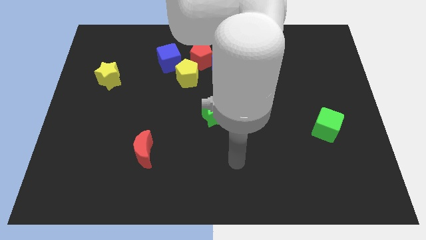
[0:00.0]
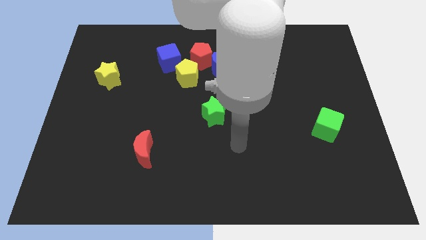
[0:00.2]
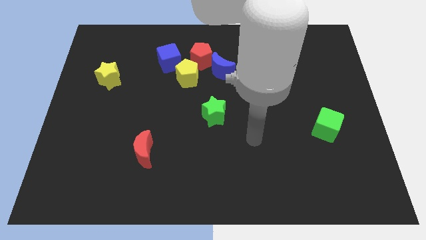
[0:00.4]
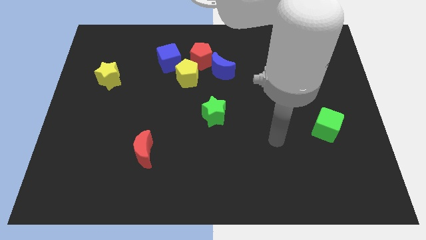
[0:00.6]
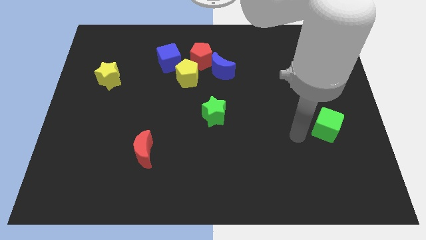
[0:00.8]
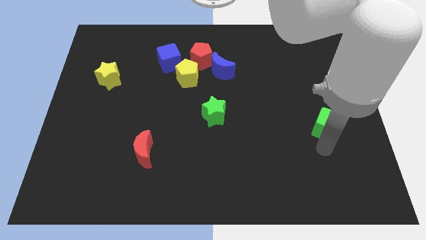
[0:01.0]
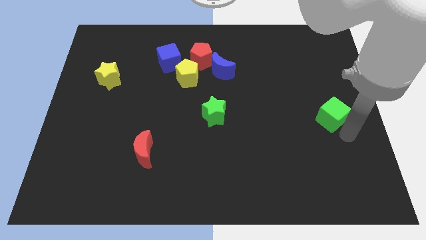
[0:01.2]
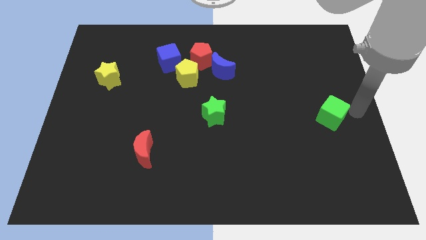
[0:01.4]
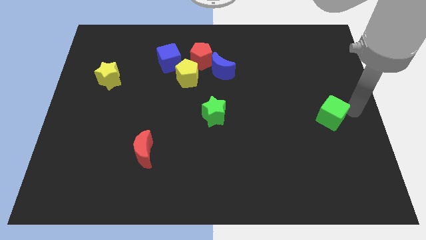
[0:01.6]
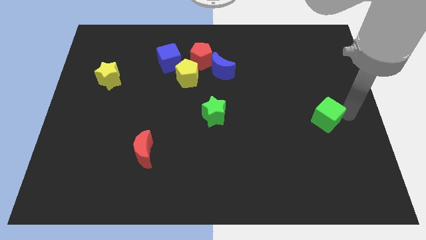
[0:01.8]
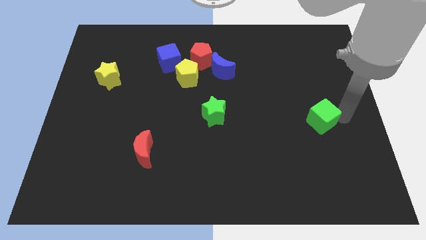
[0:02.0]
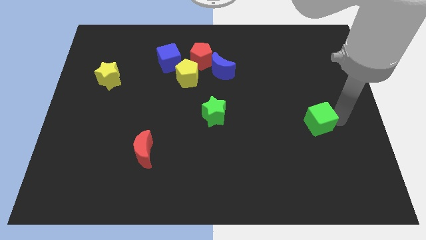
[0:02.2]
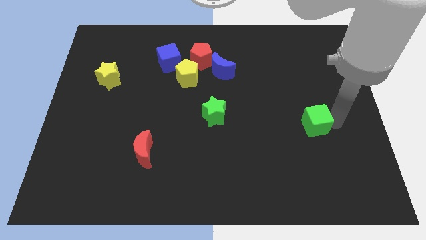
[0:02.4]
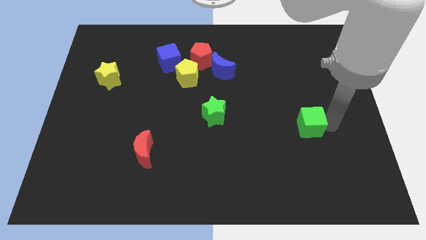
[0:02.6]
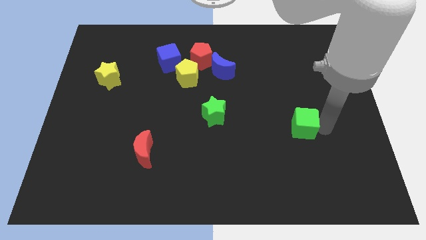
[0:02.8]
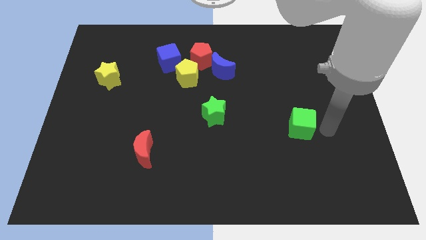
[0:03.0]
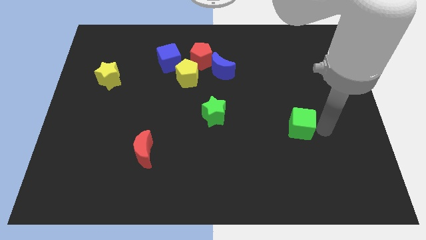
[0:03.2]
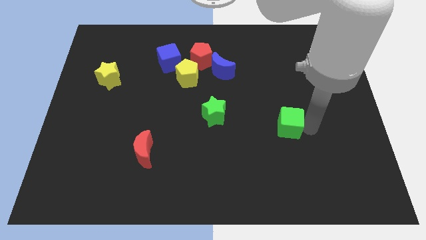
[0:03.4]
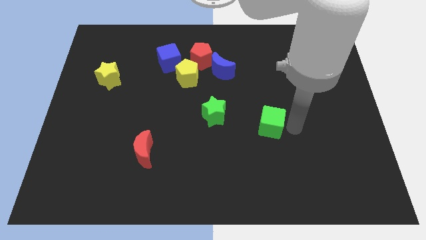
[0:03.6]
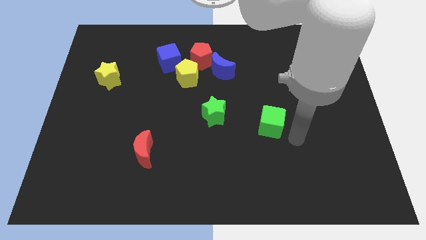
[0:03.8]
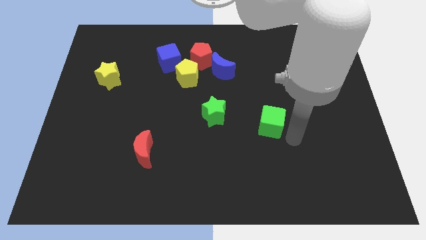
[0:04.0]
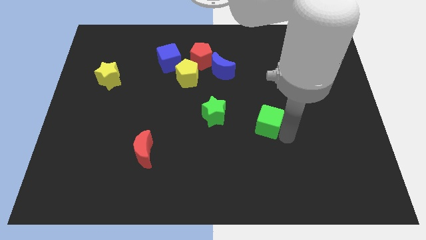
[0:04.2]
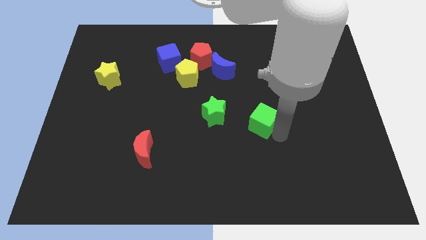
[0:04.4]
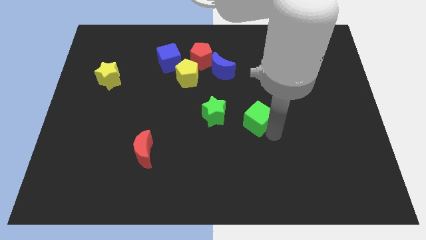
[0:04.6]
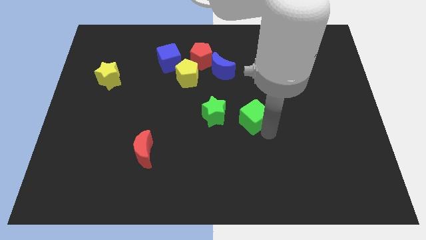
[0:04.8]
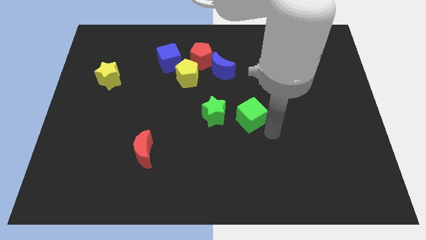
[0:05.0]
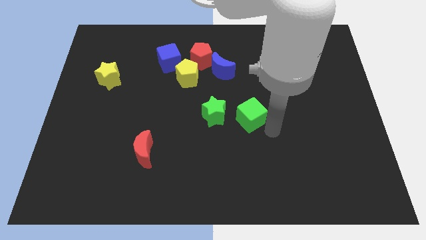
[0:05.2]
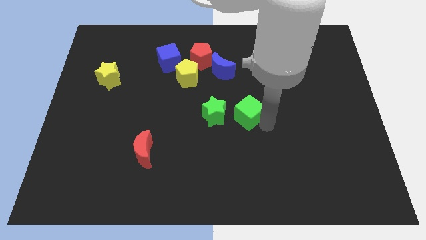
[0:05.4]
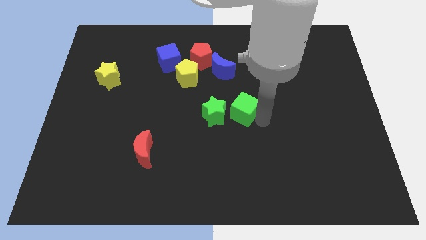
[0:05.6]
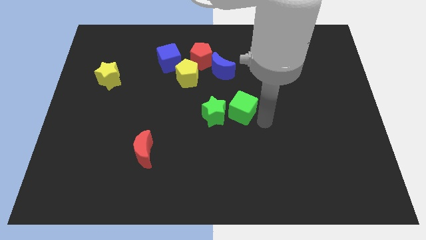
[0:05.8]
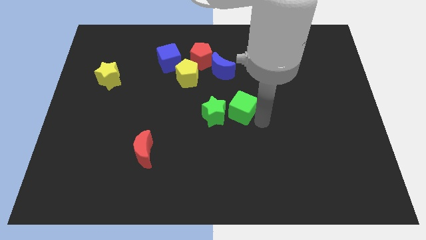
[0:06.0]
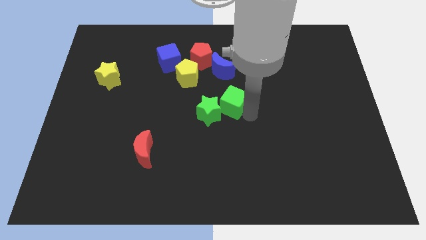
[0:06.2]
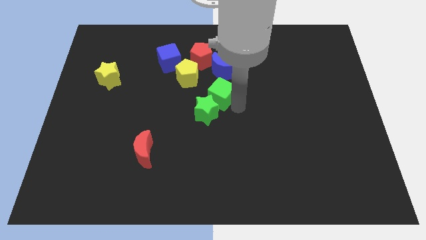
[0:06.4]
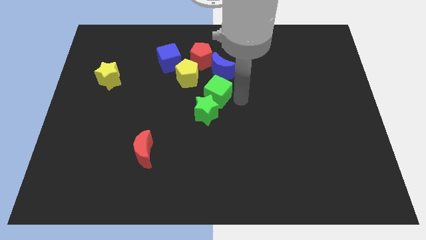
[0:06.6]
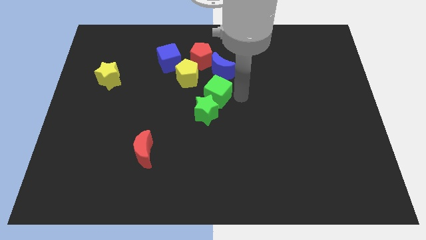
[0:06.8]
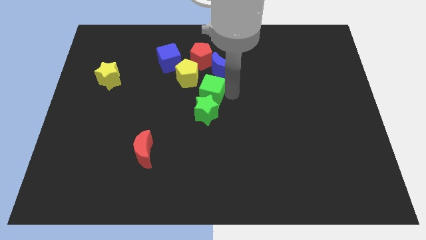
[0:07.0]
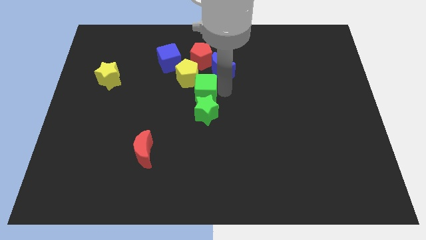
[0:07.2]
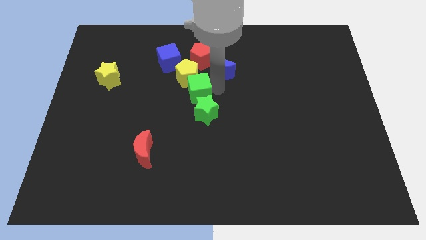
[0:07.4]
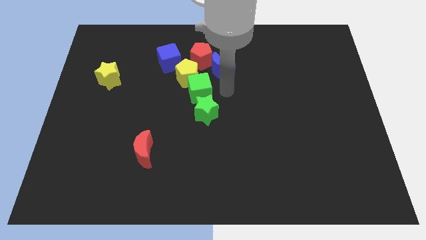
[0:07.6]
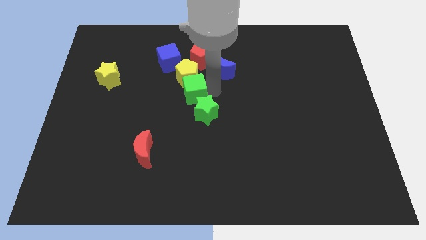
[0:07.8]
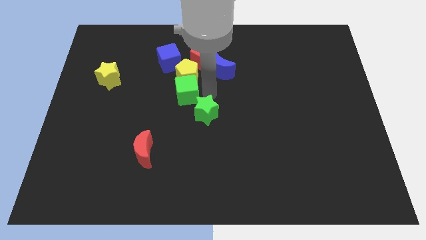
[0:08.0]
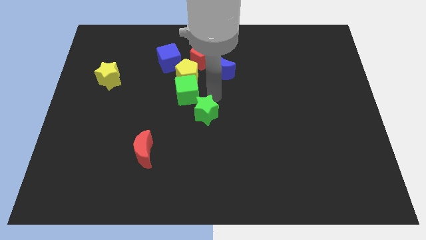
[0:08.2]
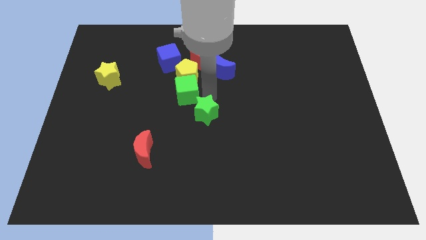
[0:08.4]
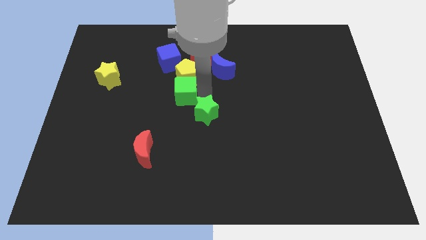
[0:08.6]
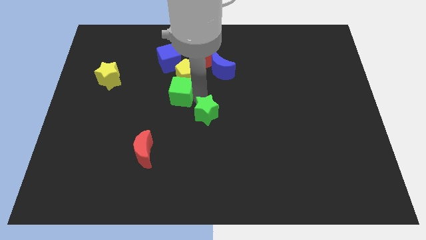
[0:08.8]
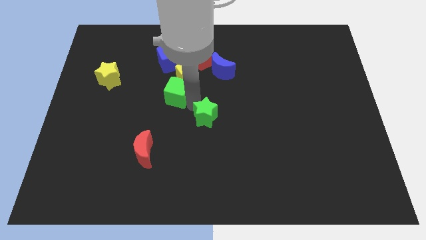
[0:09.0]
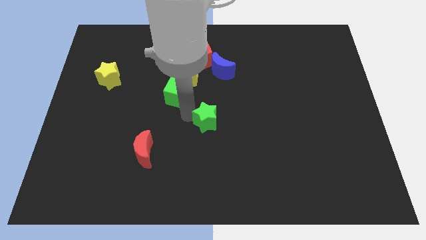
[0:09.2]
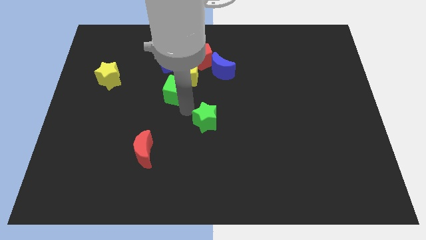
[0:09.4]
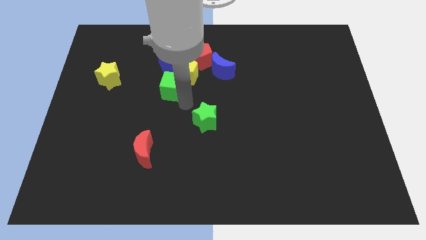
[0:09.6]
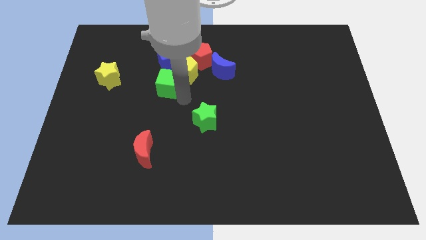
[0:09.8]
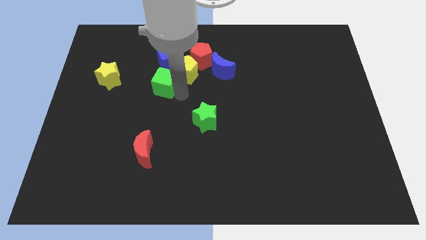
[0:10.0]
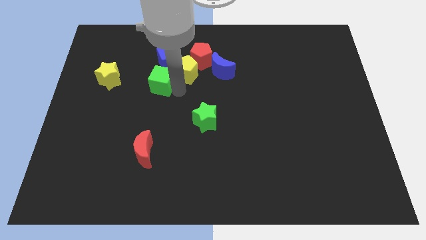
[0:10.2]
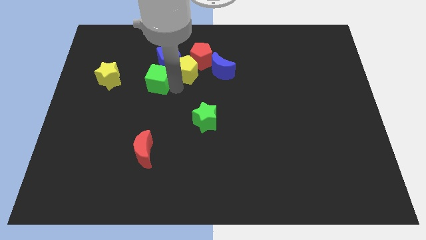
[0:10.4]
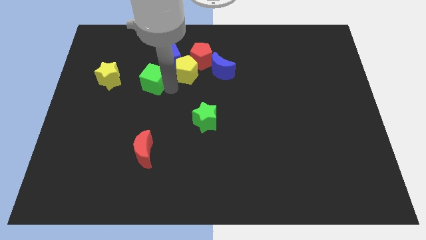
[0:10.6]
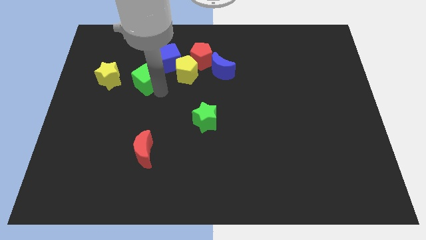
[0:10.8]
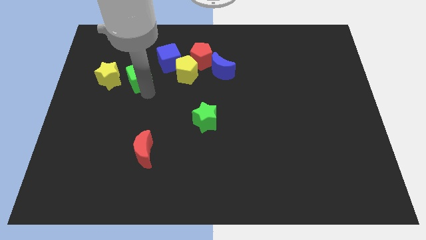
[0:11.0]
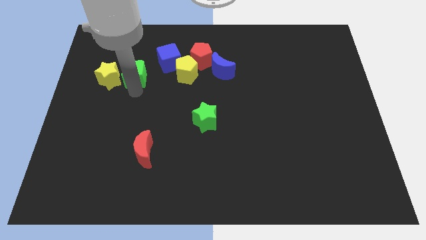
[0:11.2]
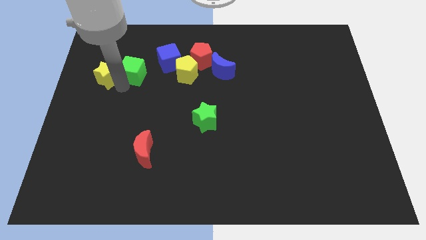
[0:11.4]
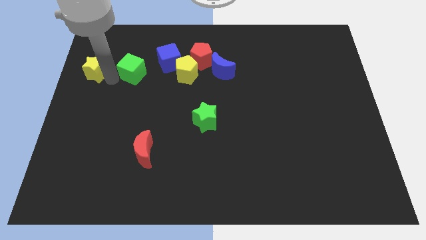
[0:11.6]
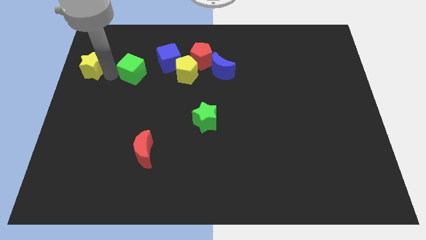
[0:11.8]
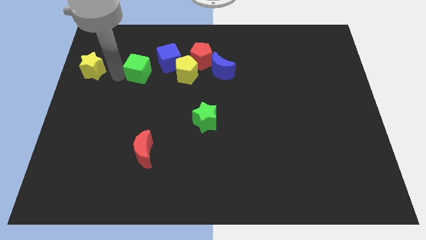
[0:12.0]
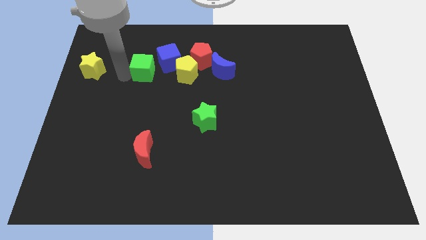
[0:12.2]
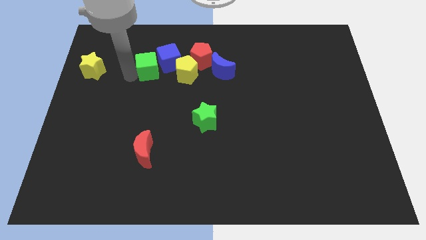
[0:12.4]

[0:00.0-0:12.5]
slide the green cube towards the blue cube

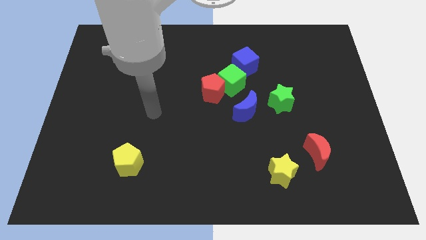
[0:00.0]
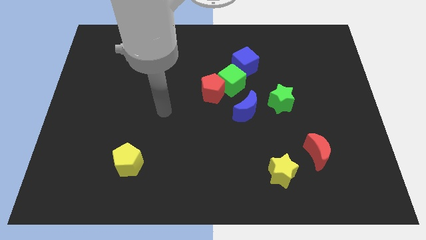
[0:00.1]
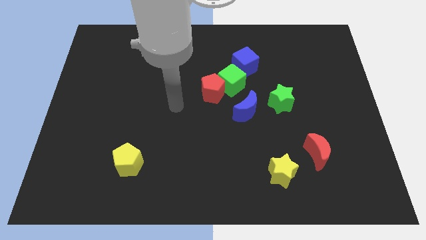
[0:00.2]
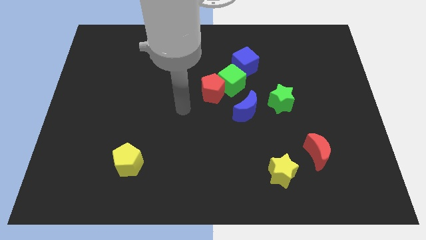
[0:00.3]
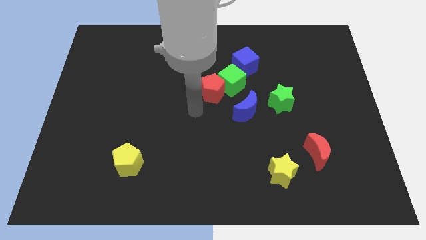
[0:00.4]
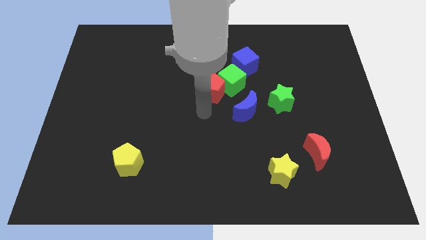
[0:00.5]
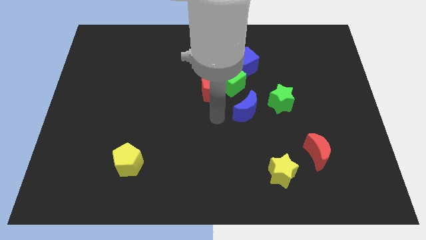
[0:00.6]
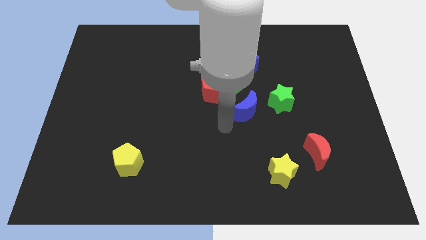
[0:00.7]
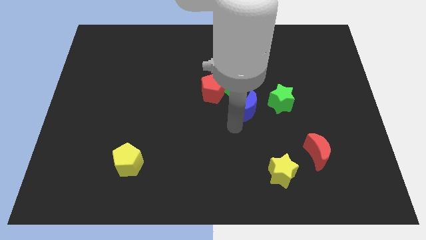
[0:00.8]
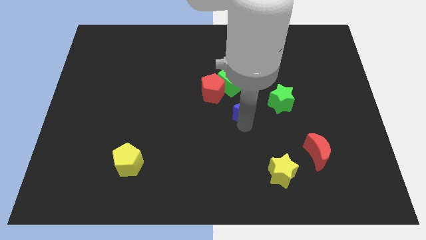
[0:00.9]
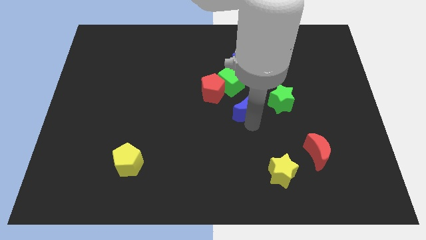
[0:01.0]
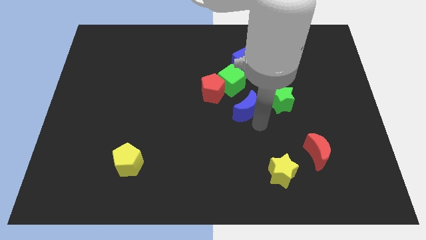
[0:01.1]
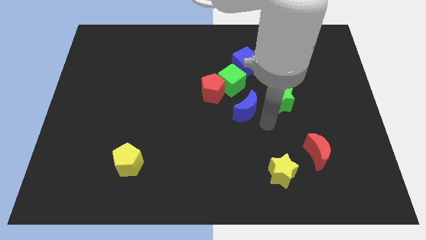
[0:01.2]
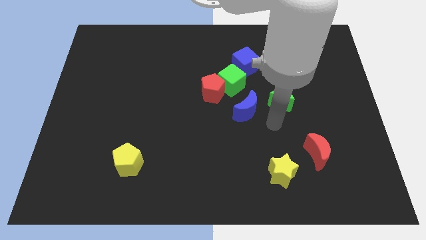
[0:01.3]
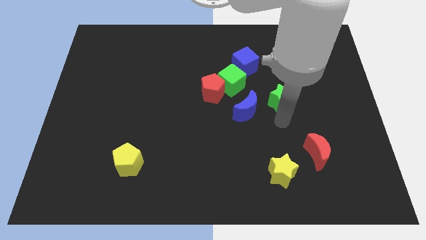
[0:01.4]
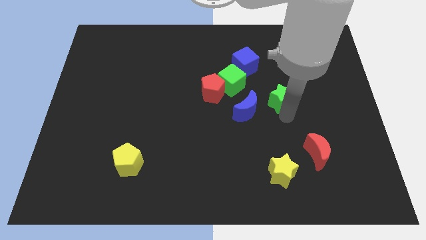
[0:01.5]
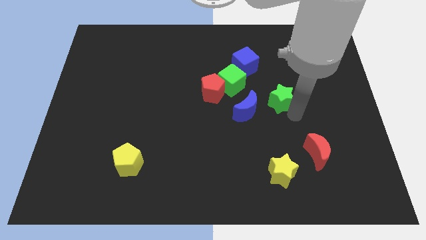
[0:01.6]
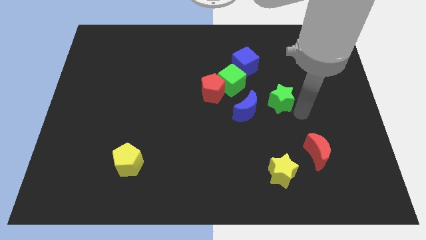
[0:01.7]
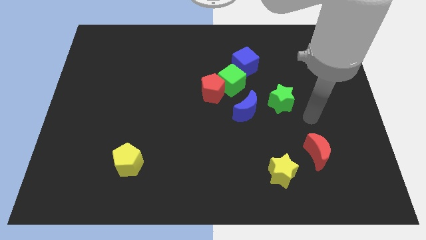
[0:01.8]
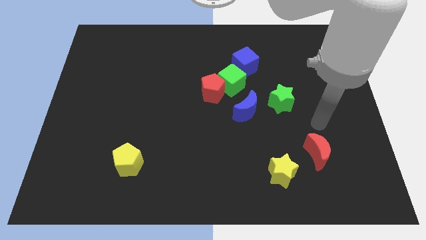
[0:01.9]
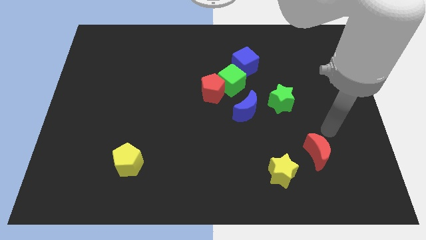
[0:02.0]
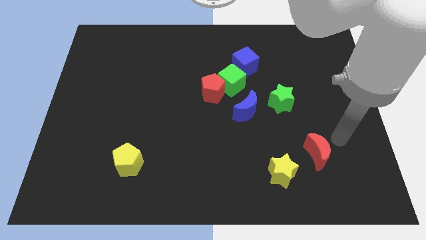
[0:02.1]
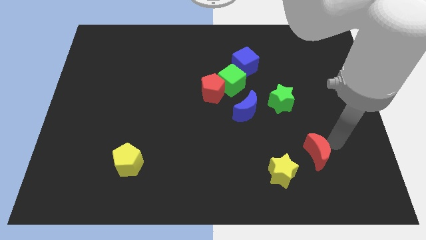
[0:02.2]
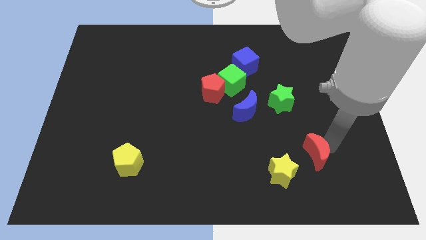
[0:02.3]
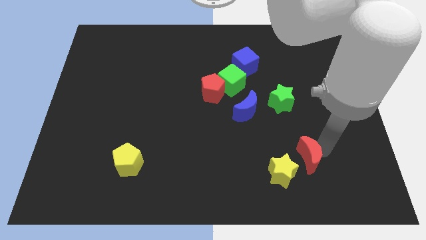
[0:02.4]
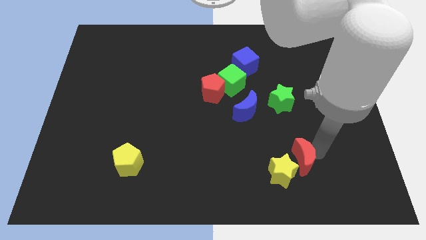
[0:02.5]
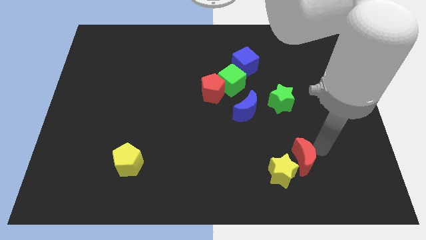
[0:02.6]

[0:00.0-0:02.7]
slide the red moon towards the yellow star
